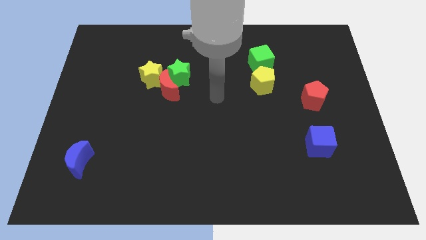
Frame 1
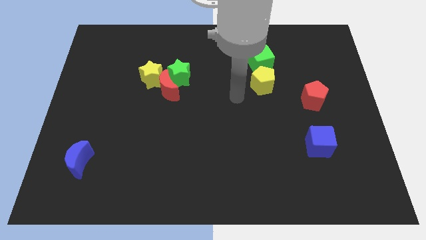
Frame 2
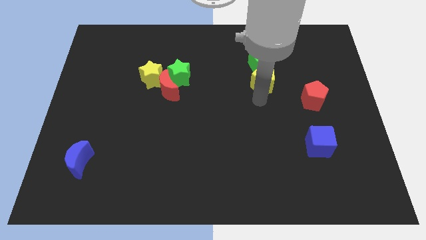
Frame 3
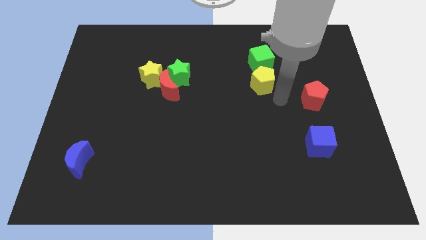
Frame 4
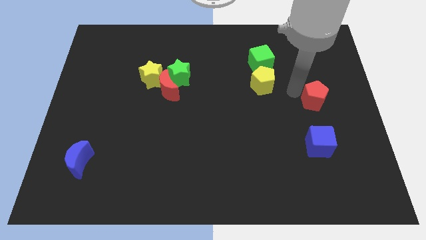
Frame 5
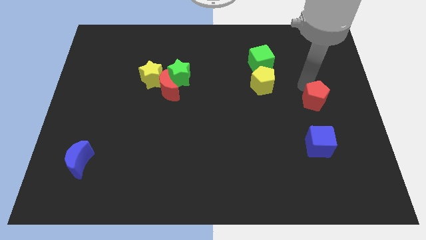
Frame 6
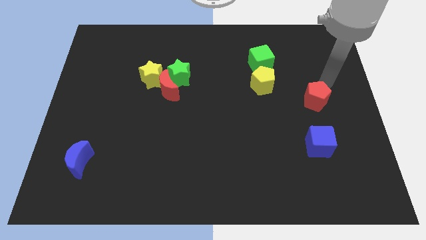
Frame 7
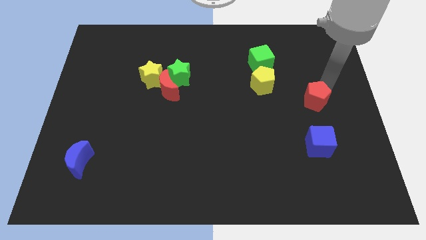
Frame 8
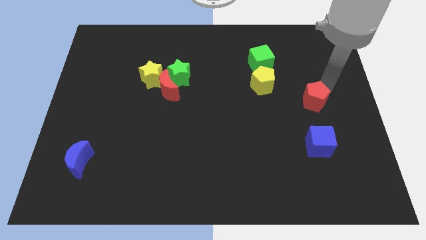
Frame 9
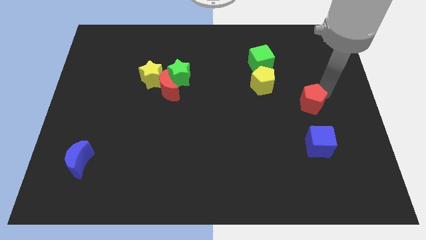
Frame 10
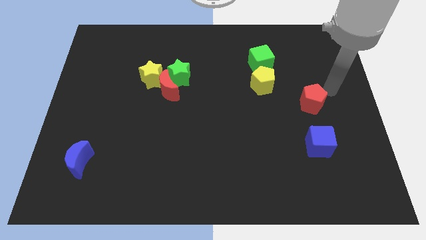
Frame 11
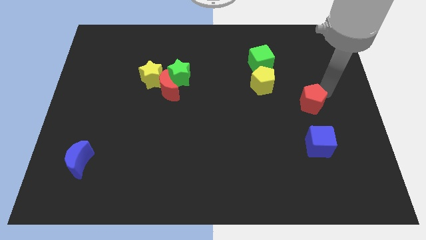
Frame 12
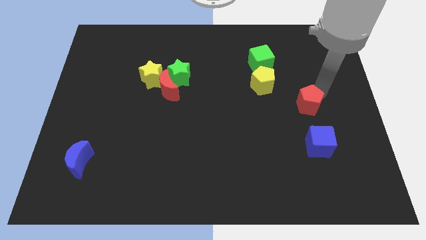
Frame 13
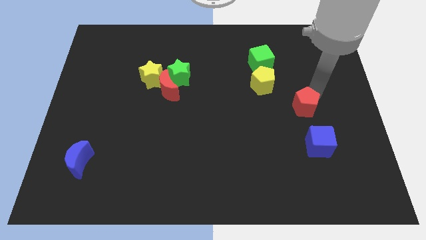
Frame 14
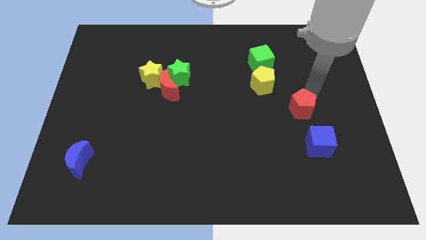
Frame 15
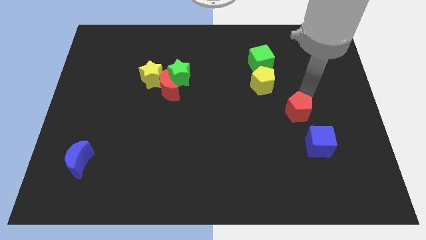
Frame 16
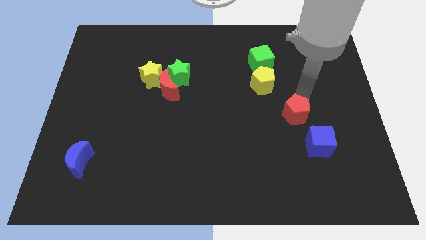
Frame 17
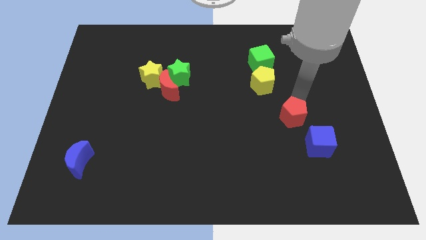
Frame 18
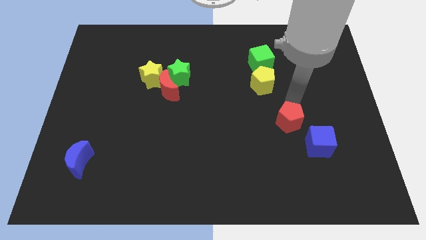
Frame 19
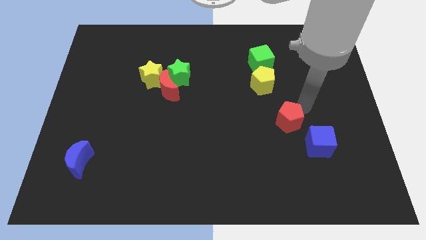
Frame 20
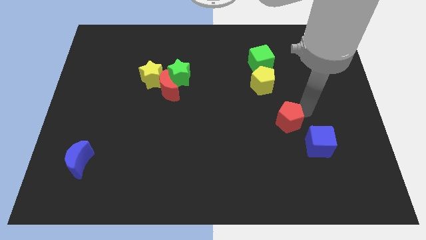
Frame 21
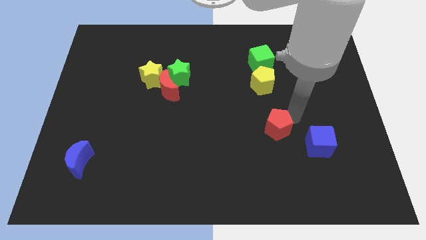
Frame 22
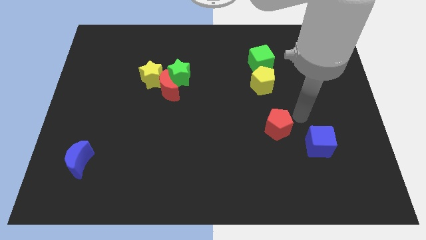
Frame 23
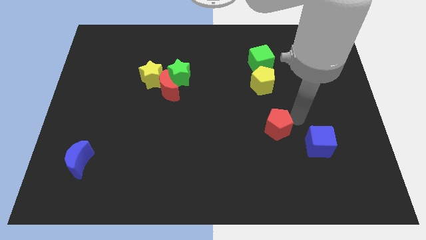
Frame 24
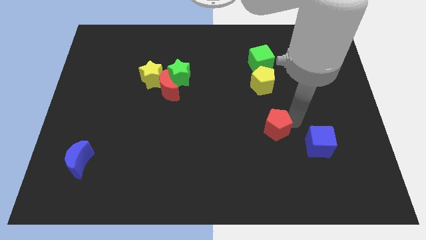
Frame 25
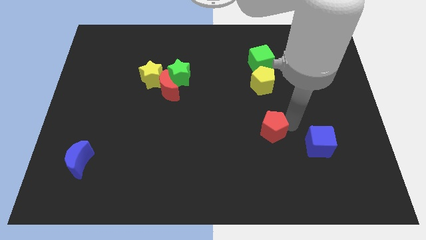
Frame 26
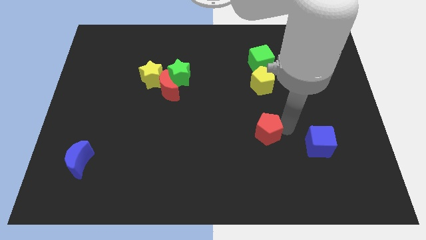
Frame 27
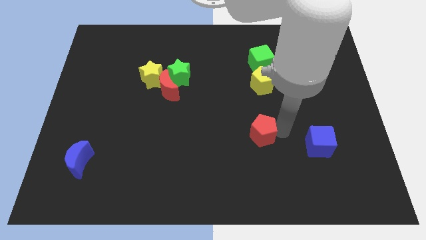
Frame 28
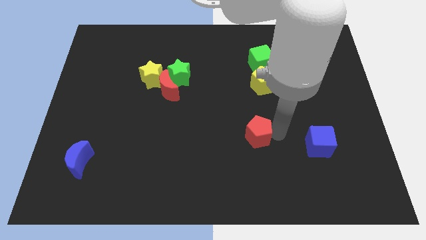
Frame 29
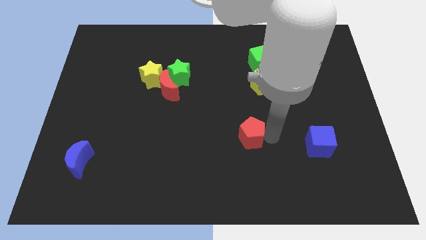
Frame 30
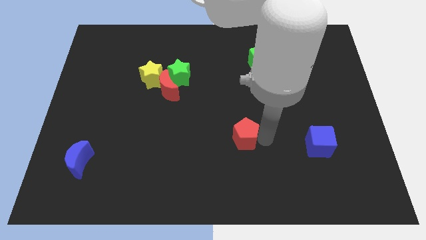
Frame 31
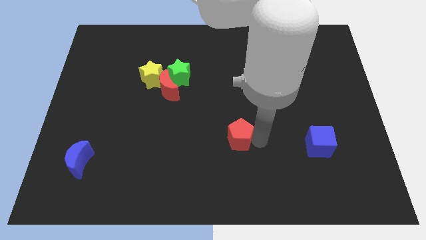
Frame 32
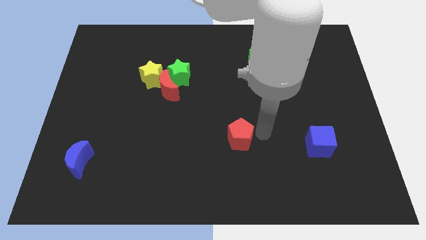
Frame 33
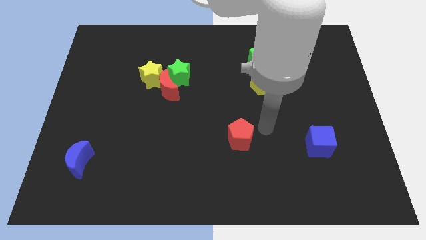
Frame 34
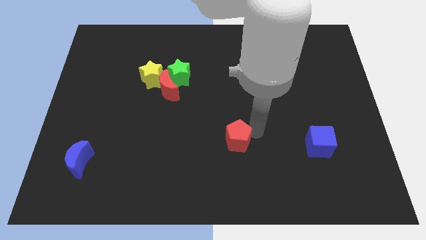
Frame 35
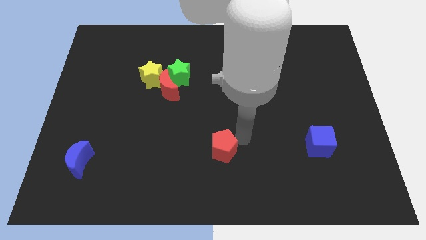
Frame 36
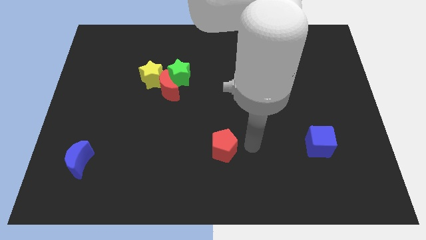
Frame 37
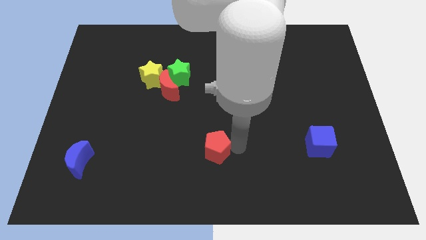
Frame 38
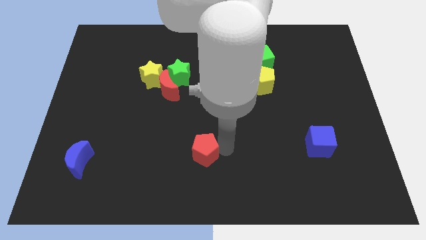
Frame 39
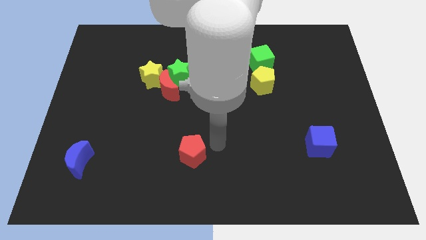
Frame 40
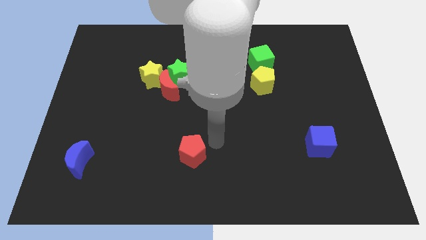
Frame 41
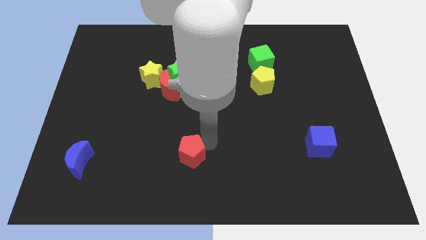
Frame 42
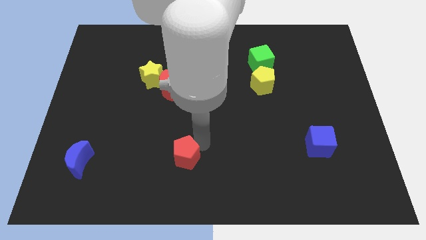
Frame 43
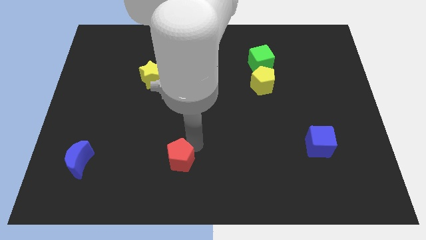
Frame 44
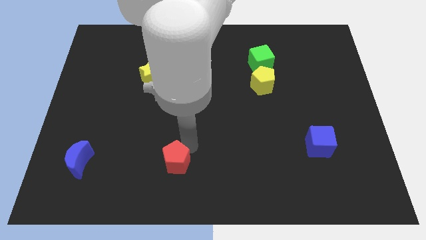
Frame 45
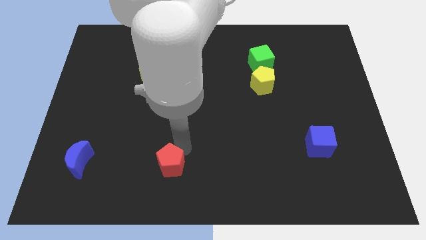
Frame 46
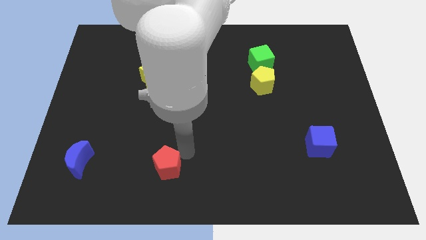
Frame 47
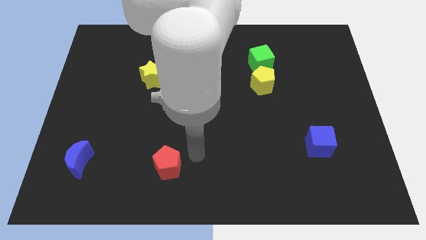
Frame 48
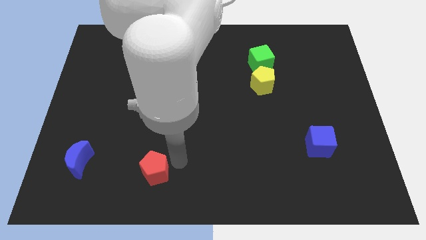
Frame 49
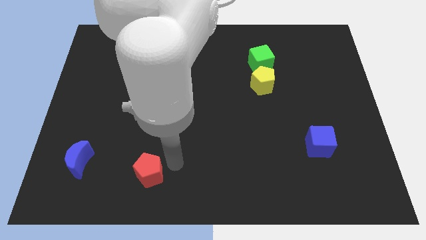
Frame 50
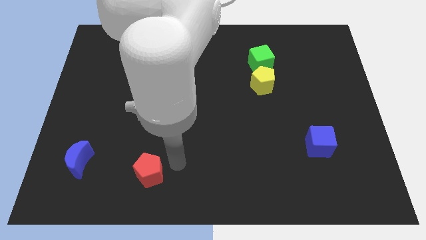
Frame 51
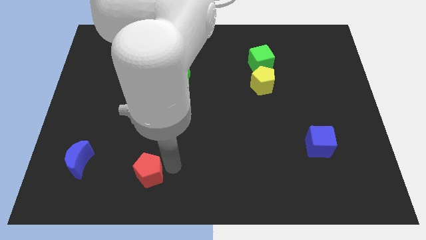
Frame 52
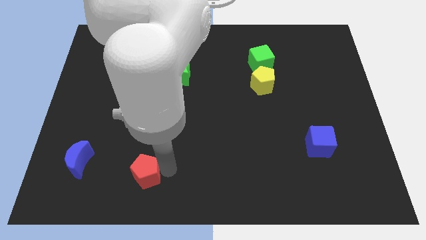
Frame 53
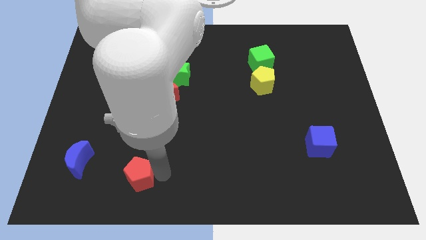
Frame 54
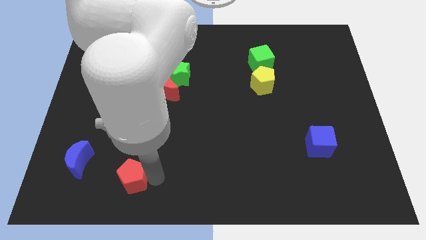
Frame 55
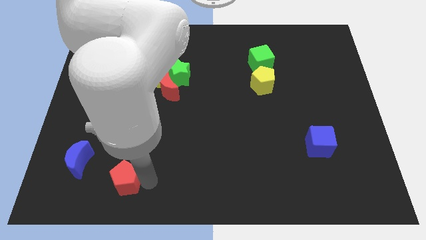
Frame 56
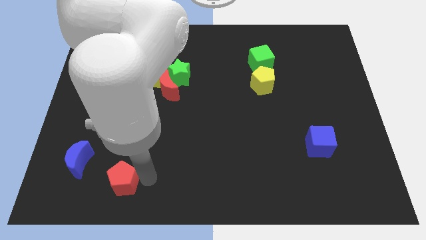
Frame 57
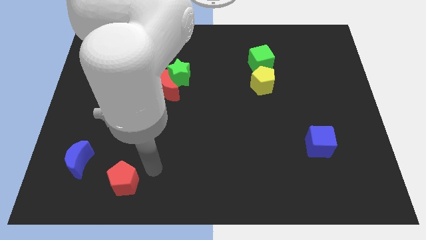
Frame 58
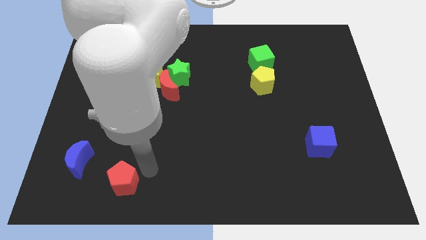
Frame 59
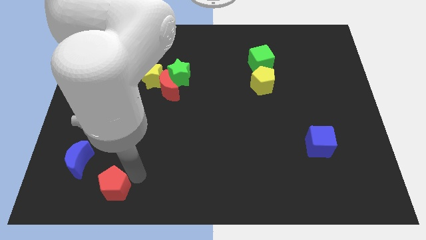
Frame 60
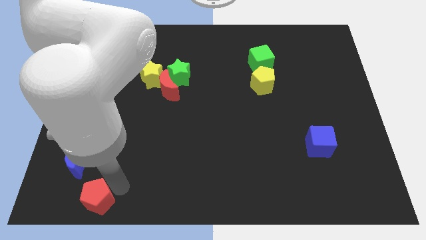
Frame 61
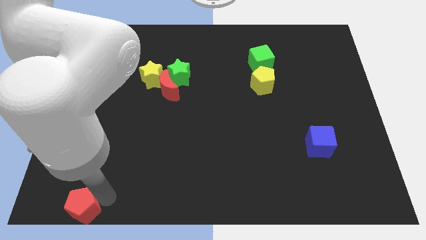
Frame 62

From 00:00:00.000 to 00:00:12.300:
put the red pentagon to the bottom left of the board
